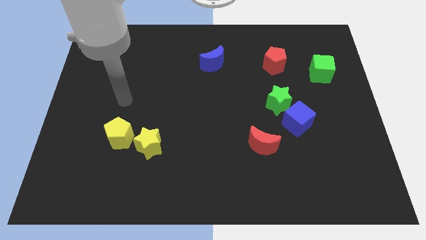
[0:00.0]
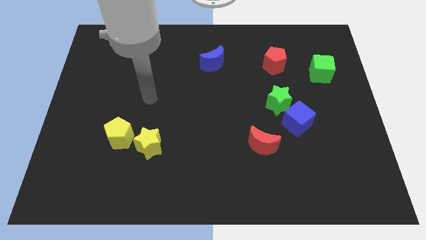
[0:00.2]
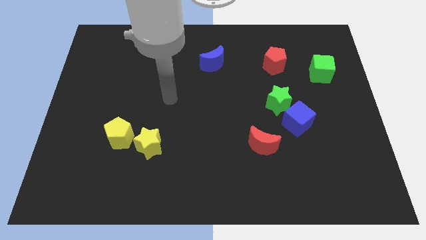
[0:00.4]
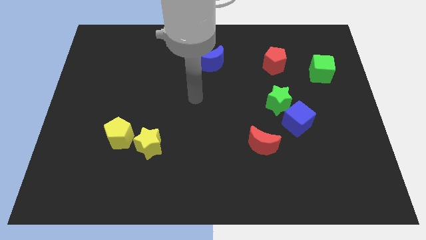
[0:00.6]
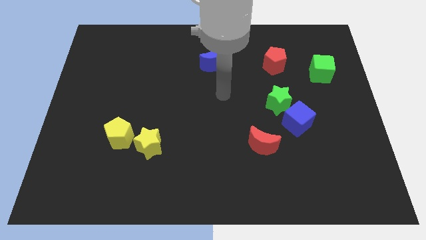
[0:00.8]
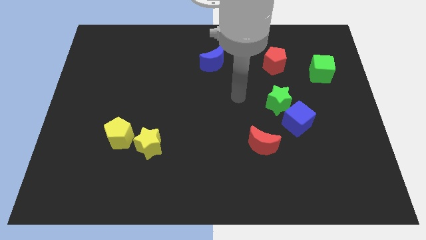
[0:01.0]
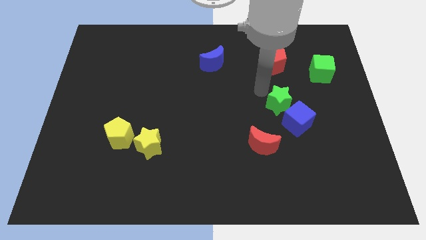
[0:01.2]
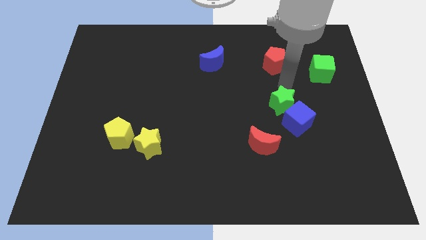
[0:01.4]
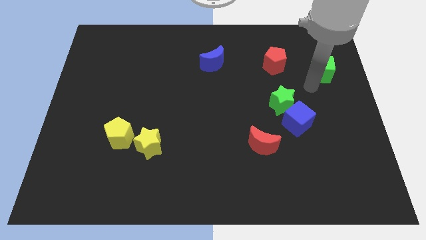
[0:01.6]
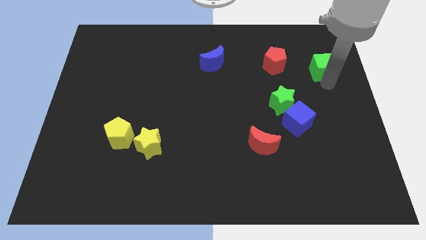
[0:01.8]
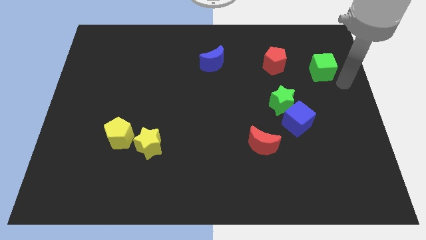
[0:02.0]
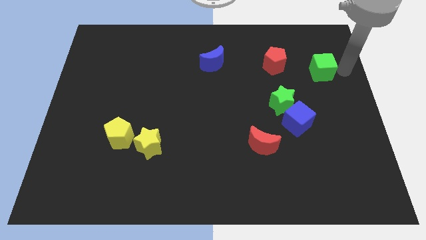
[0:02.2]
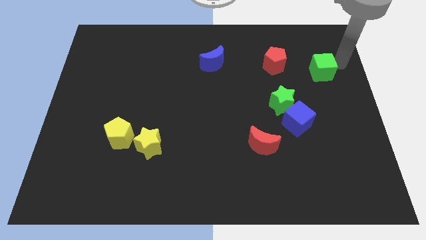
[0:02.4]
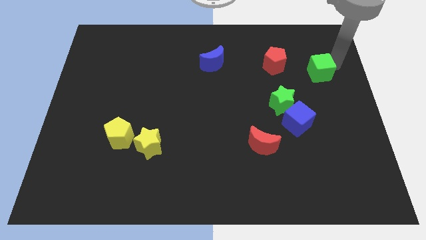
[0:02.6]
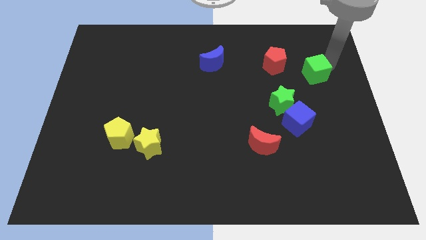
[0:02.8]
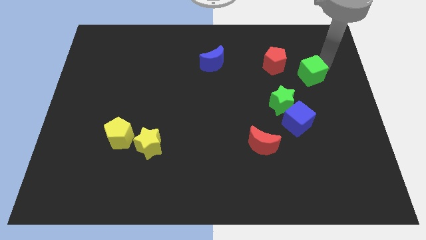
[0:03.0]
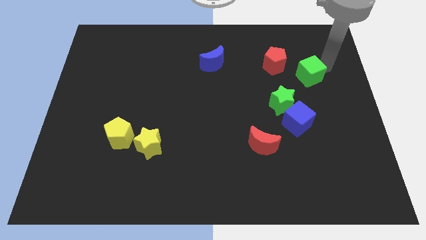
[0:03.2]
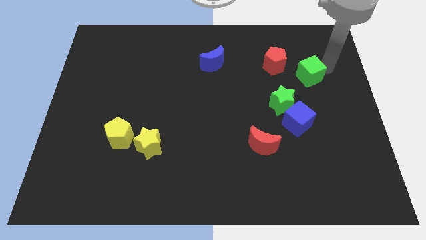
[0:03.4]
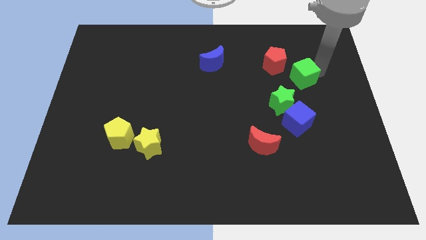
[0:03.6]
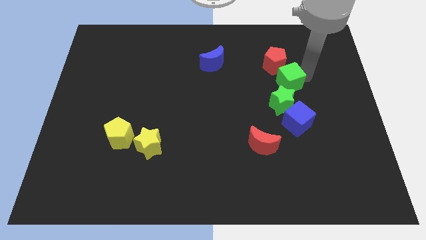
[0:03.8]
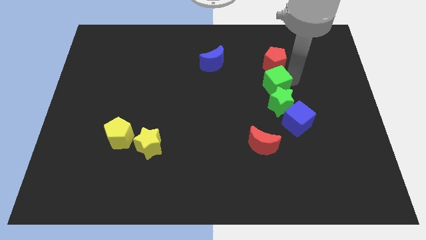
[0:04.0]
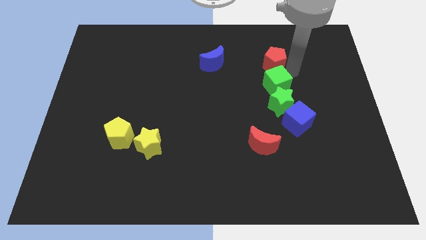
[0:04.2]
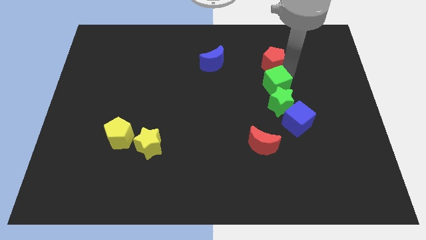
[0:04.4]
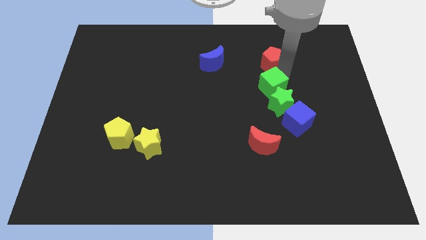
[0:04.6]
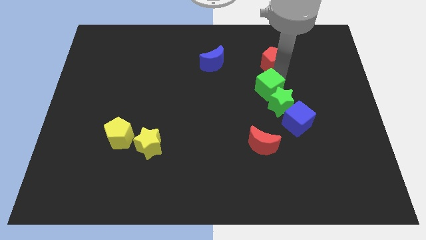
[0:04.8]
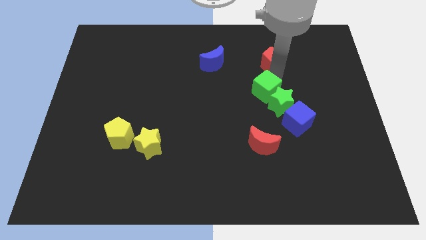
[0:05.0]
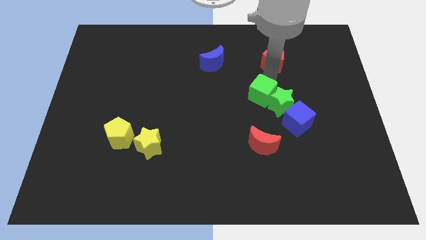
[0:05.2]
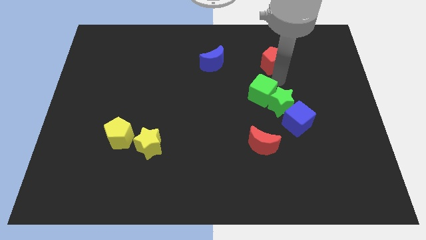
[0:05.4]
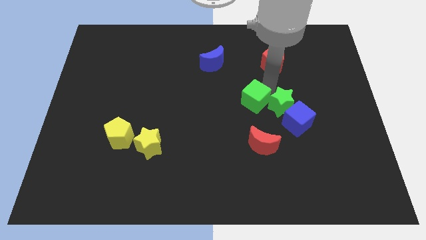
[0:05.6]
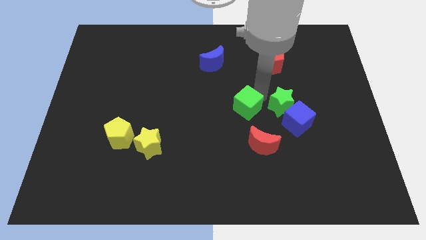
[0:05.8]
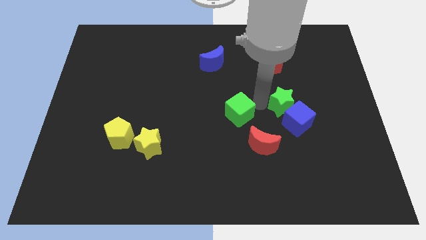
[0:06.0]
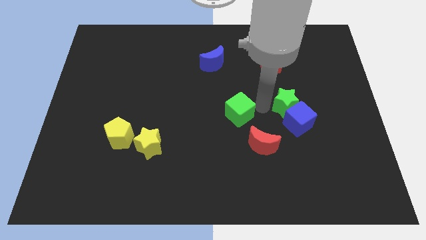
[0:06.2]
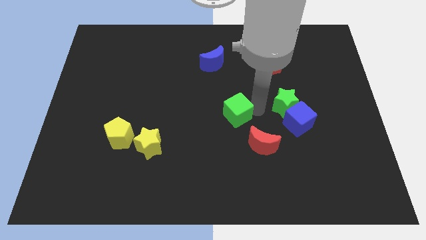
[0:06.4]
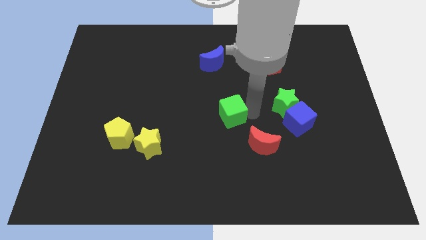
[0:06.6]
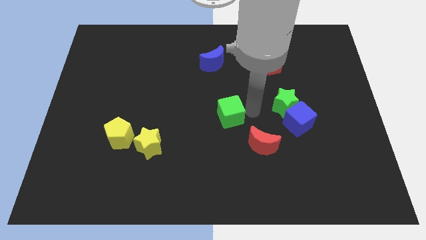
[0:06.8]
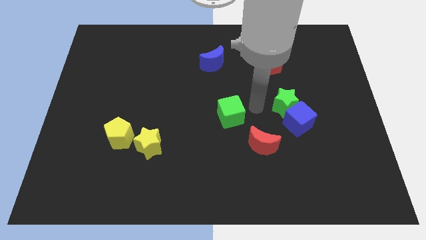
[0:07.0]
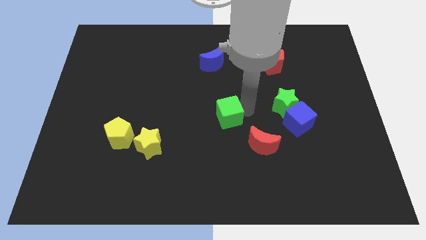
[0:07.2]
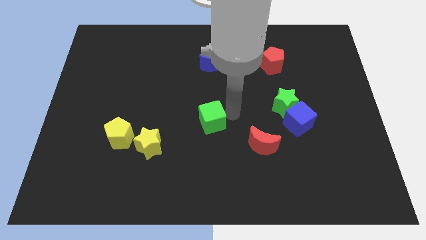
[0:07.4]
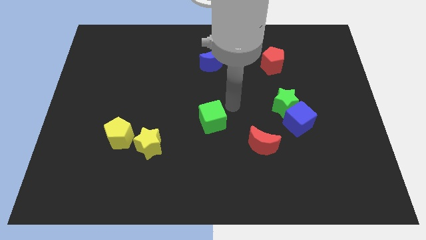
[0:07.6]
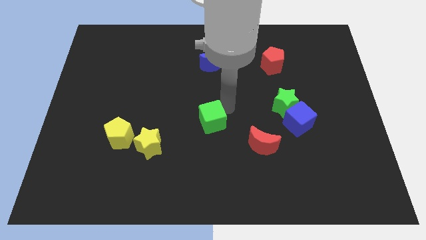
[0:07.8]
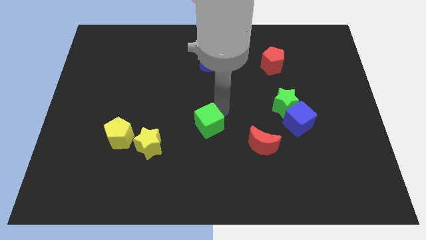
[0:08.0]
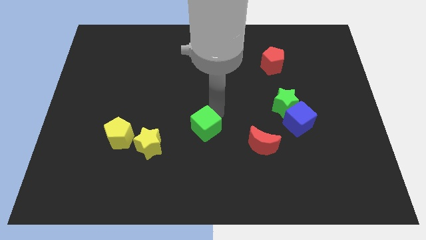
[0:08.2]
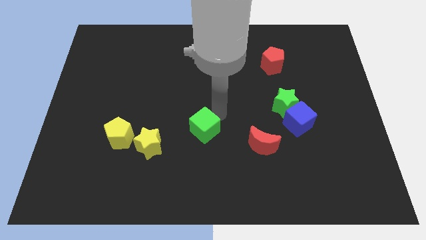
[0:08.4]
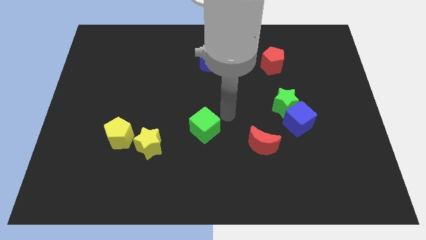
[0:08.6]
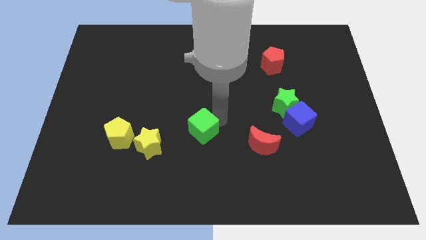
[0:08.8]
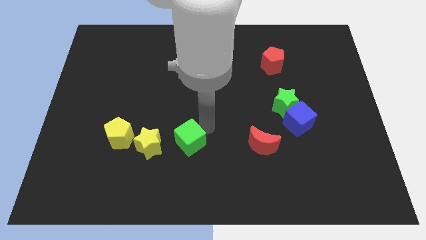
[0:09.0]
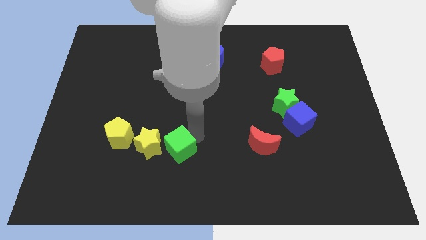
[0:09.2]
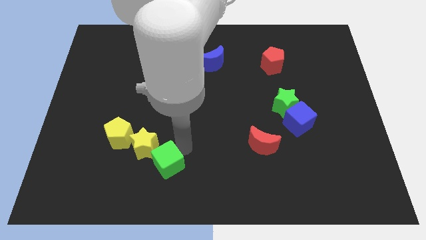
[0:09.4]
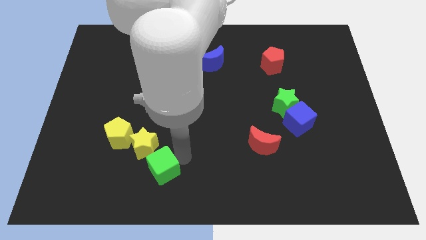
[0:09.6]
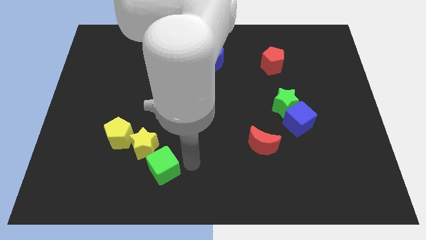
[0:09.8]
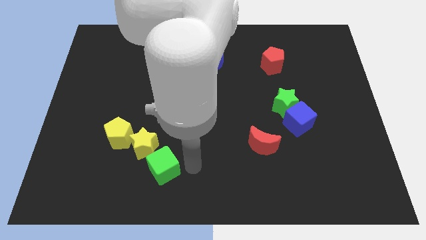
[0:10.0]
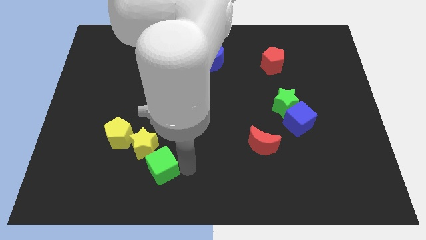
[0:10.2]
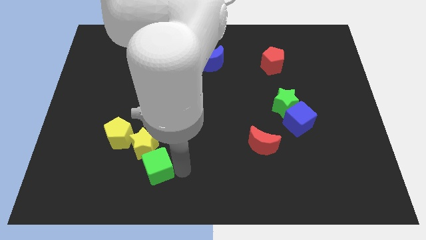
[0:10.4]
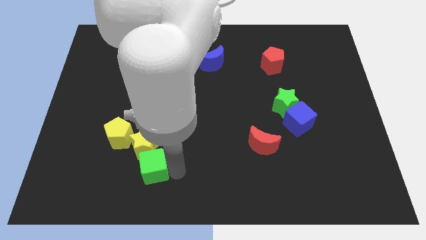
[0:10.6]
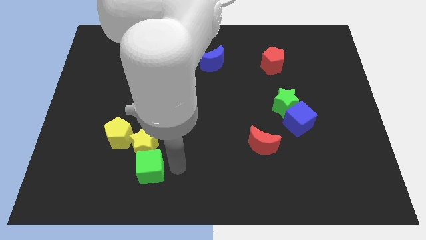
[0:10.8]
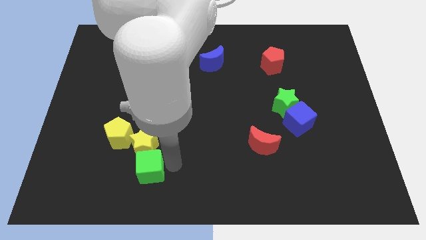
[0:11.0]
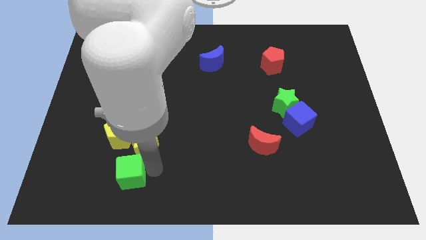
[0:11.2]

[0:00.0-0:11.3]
slide the green cube to the bottom of the yellow pentagon

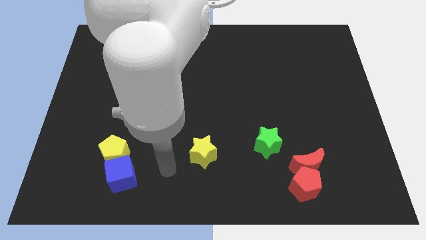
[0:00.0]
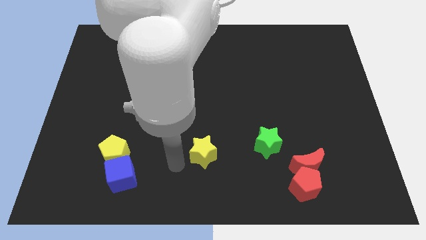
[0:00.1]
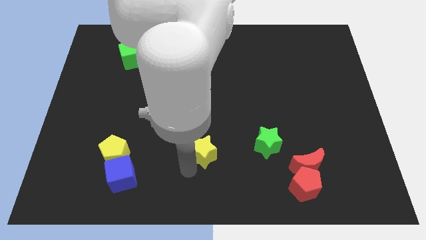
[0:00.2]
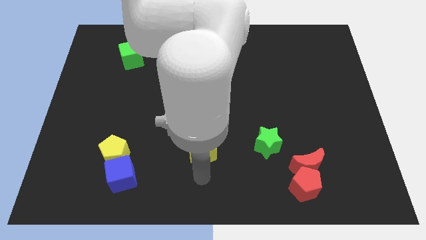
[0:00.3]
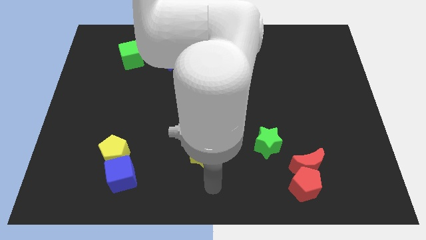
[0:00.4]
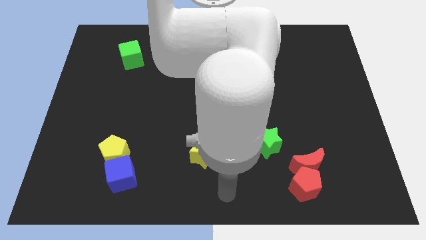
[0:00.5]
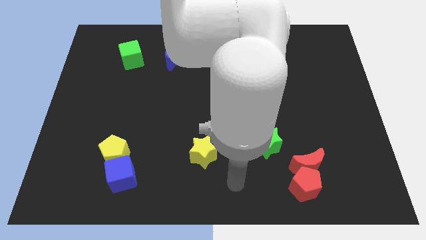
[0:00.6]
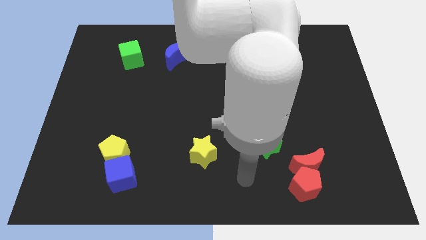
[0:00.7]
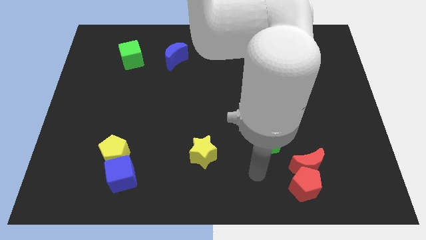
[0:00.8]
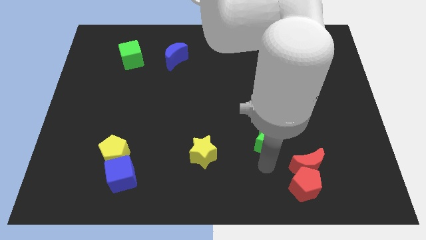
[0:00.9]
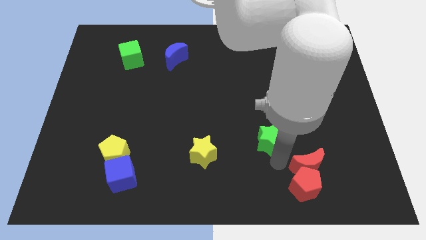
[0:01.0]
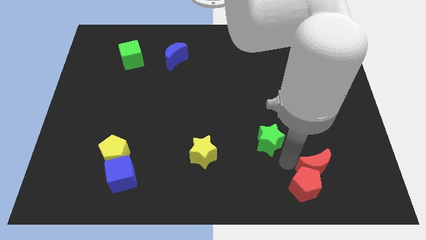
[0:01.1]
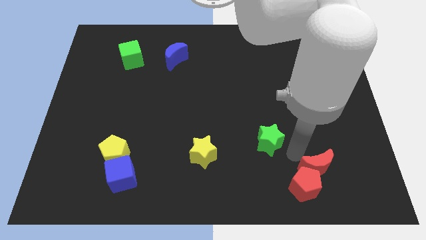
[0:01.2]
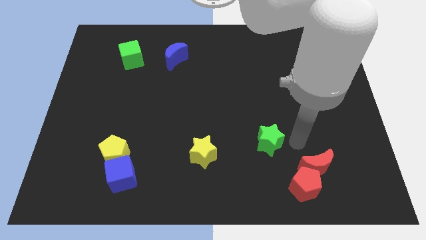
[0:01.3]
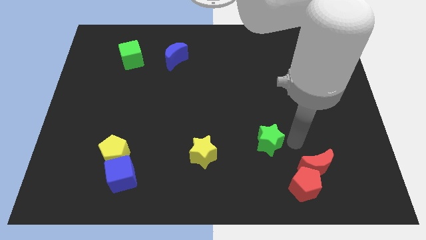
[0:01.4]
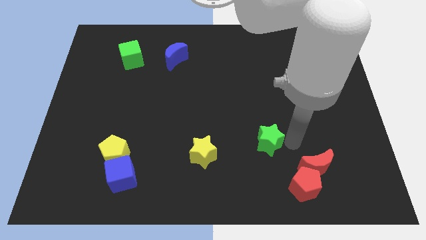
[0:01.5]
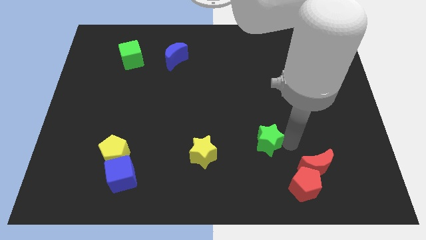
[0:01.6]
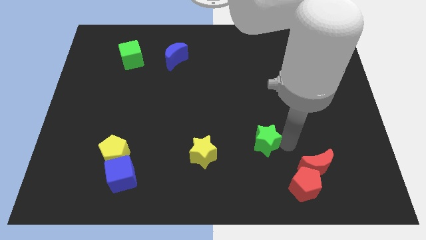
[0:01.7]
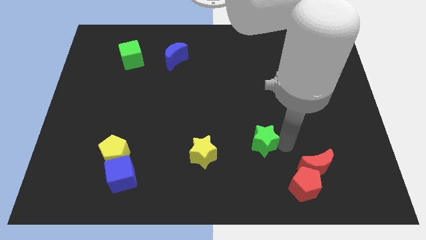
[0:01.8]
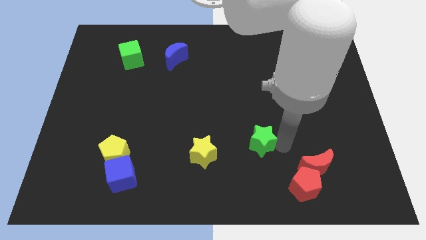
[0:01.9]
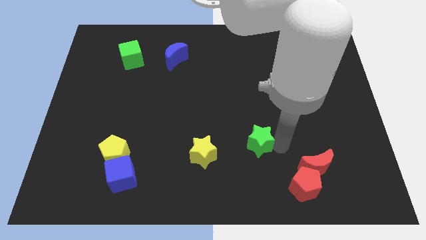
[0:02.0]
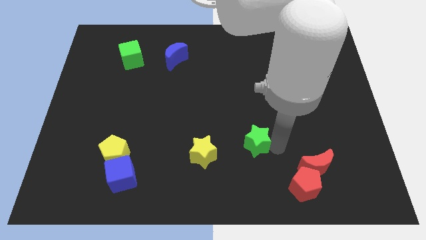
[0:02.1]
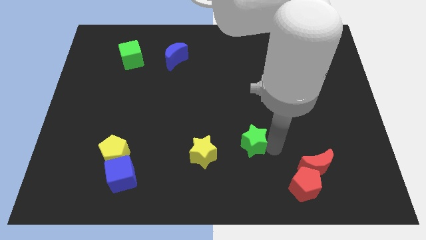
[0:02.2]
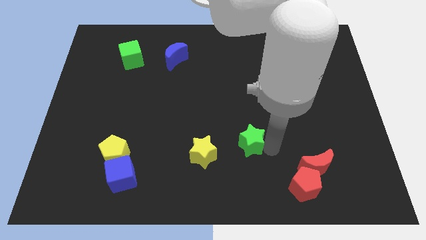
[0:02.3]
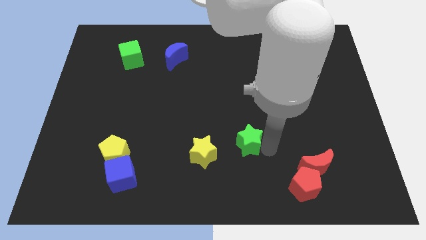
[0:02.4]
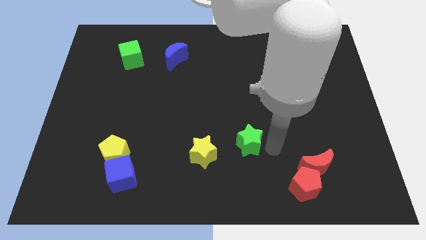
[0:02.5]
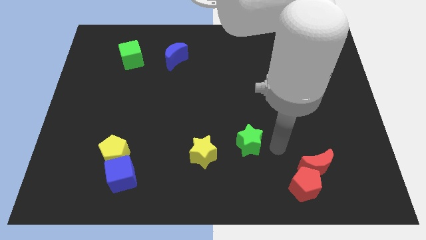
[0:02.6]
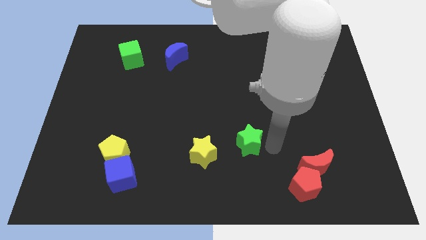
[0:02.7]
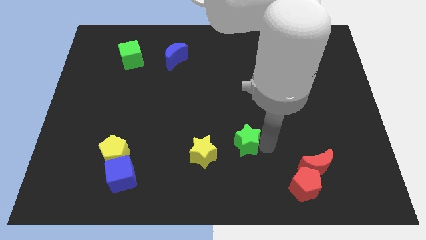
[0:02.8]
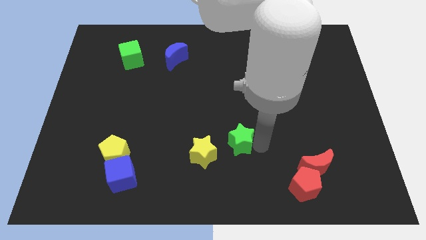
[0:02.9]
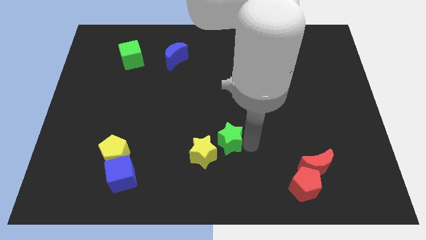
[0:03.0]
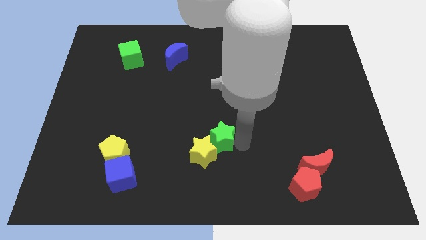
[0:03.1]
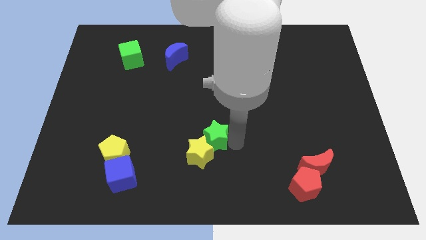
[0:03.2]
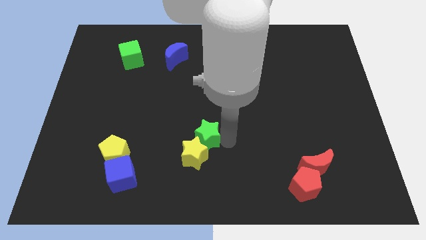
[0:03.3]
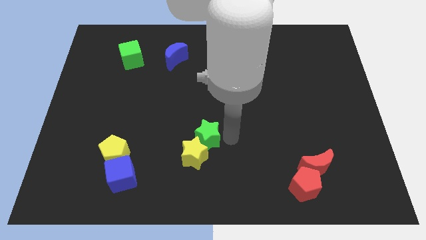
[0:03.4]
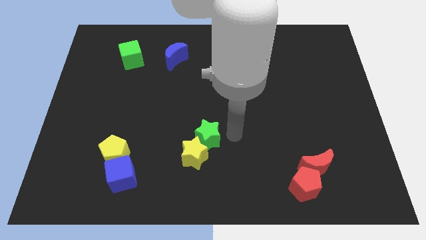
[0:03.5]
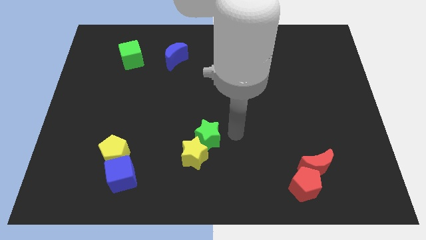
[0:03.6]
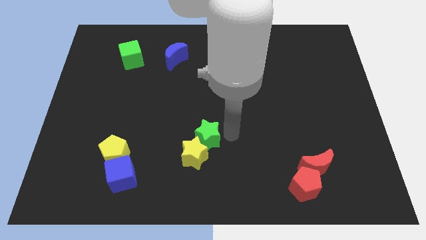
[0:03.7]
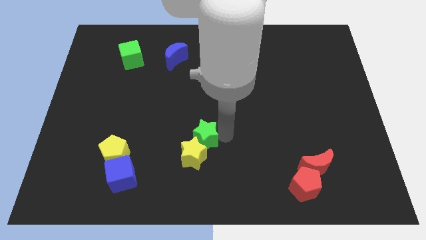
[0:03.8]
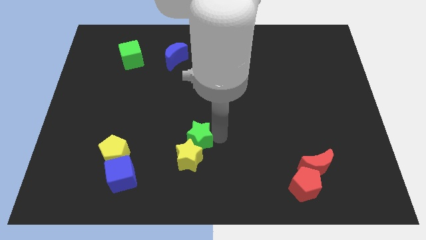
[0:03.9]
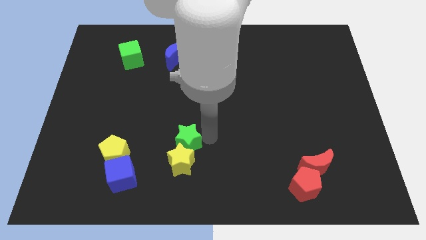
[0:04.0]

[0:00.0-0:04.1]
slide the green star just right of the yellow pentagon
